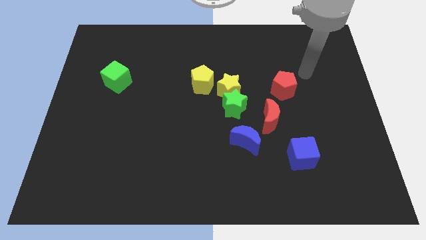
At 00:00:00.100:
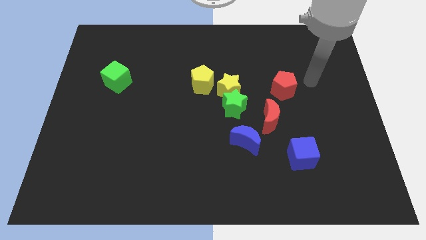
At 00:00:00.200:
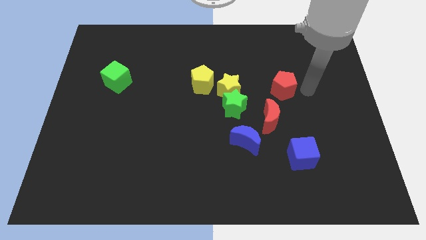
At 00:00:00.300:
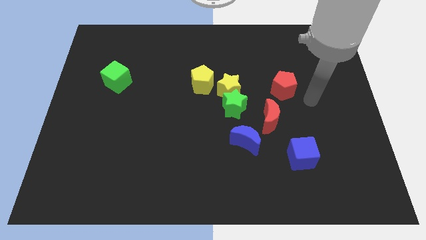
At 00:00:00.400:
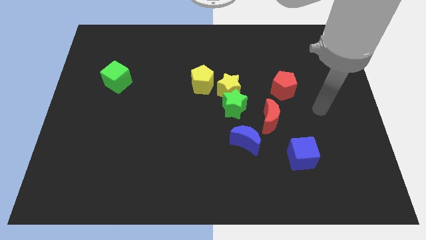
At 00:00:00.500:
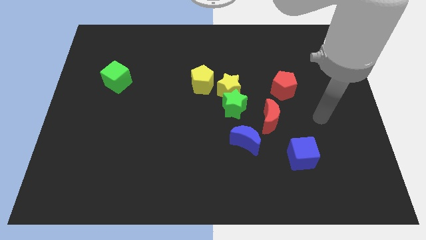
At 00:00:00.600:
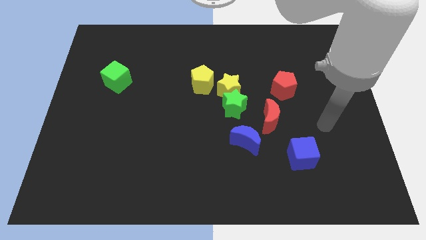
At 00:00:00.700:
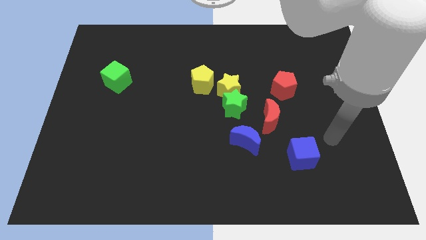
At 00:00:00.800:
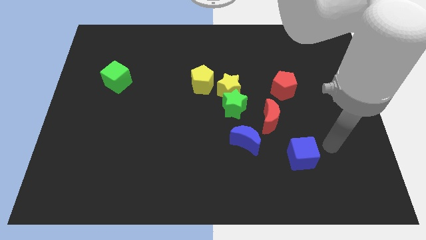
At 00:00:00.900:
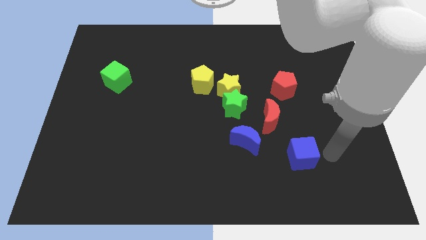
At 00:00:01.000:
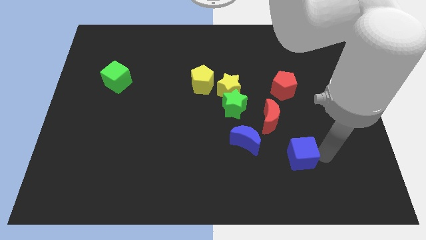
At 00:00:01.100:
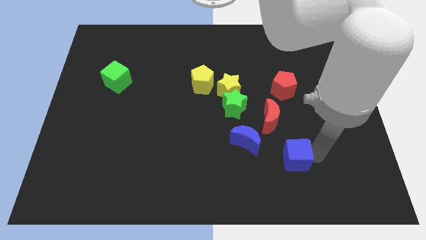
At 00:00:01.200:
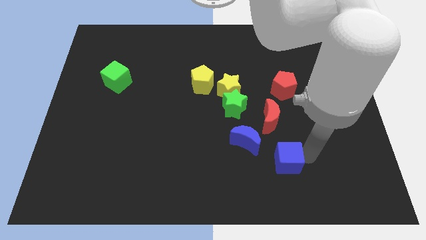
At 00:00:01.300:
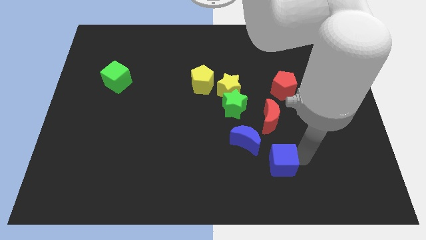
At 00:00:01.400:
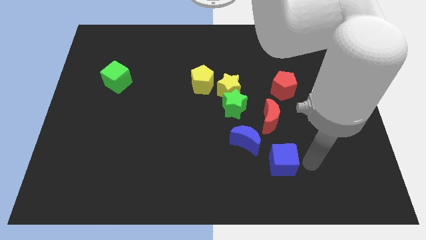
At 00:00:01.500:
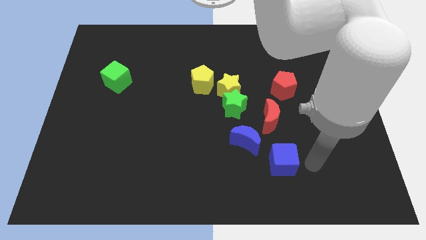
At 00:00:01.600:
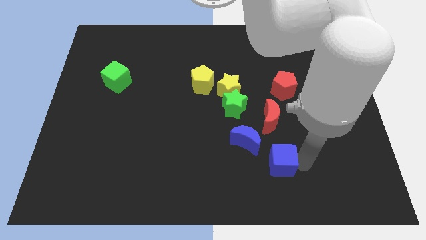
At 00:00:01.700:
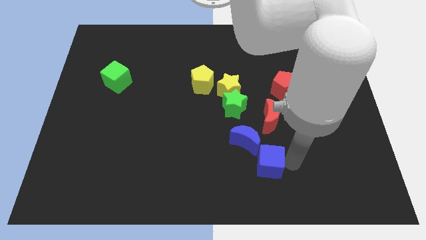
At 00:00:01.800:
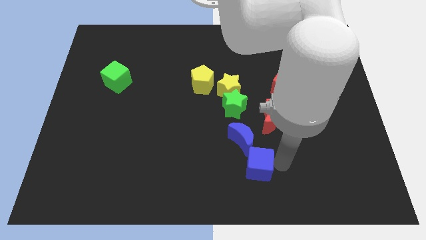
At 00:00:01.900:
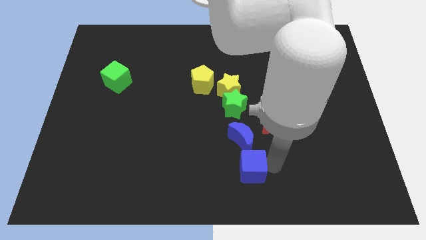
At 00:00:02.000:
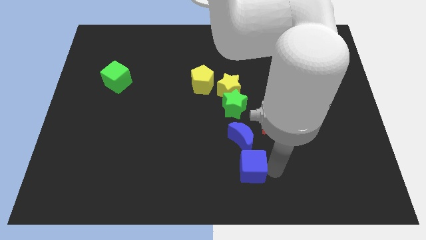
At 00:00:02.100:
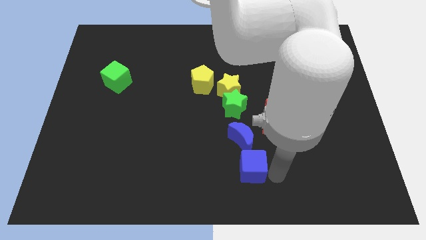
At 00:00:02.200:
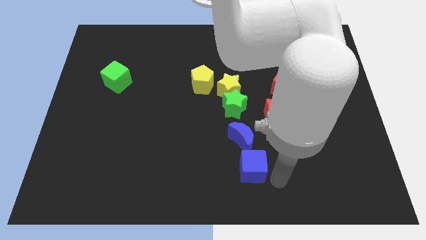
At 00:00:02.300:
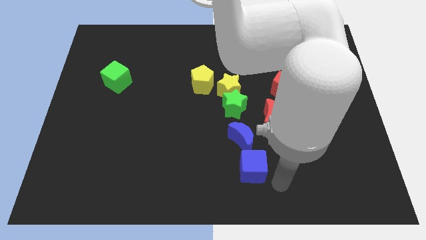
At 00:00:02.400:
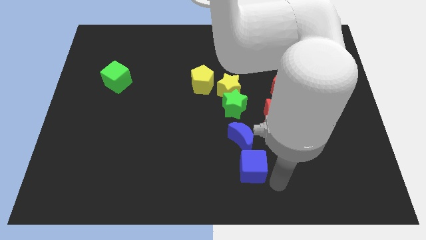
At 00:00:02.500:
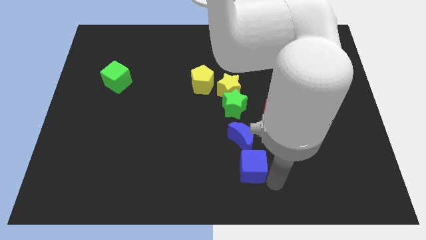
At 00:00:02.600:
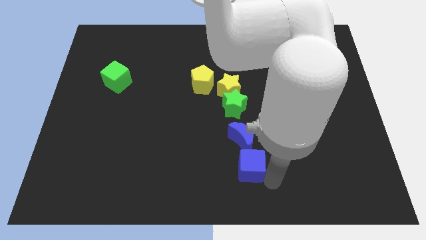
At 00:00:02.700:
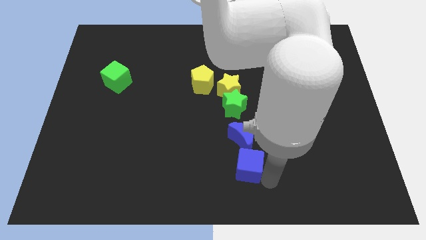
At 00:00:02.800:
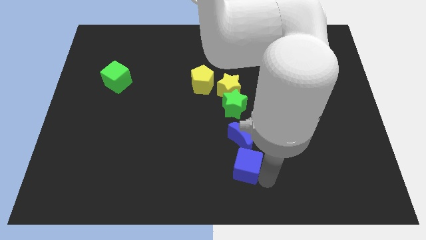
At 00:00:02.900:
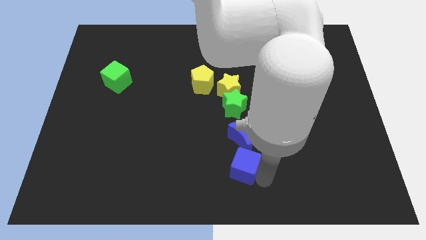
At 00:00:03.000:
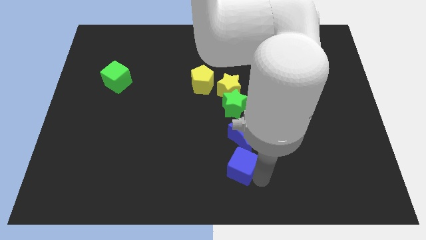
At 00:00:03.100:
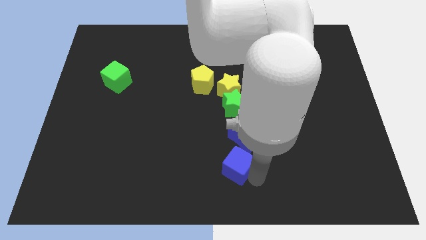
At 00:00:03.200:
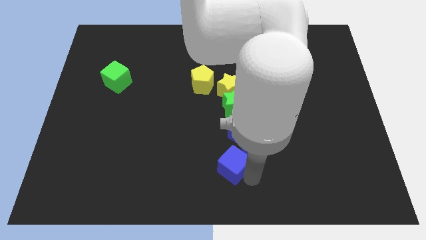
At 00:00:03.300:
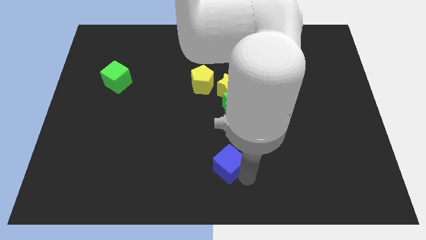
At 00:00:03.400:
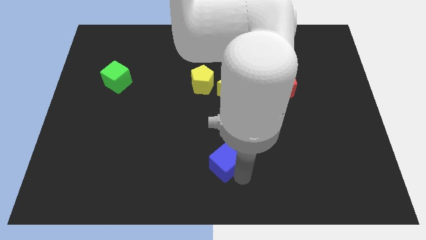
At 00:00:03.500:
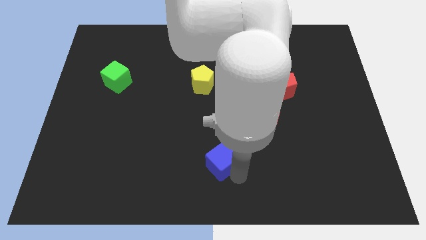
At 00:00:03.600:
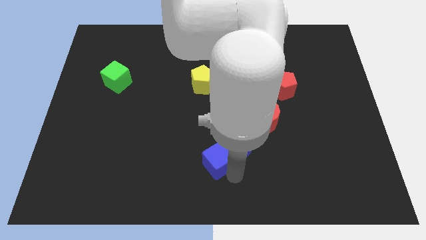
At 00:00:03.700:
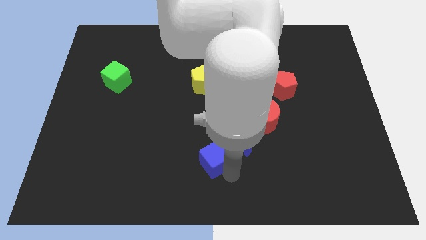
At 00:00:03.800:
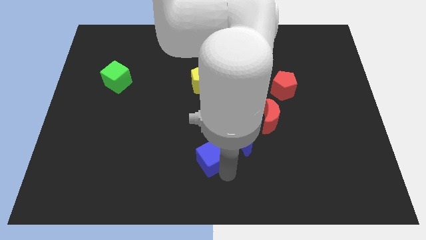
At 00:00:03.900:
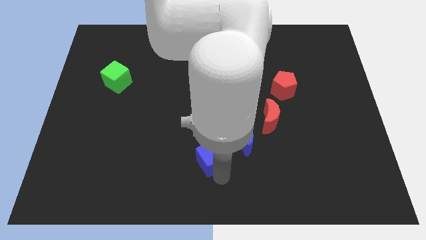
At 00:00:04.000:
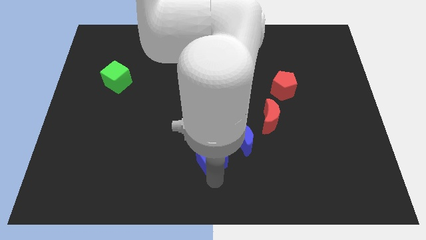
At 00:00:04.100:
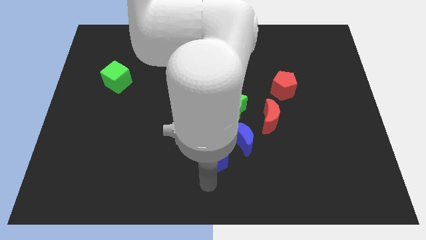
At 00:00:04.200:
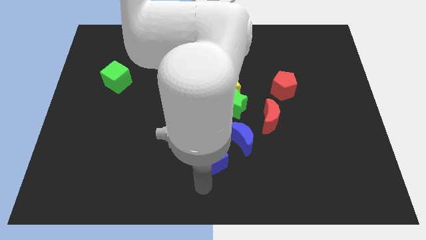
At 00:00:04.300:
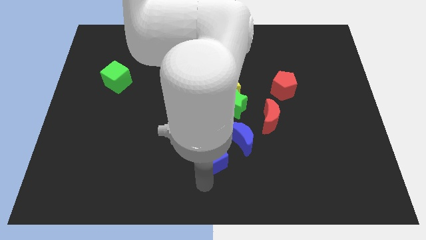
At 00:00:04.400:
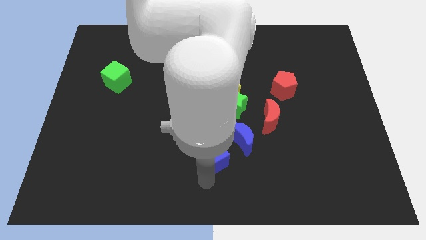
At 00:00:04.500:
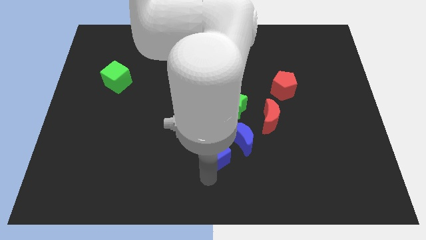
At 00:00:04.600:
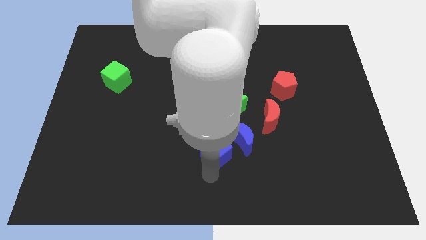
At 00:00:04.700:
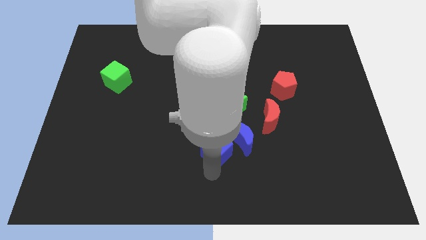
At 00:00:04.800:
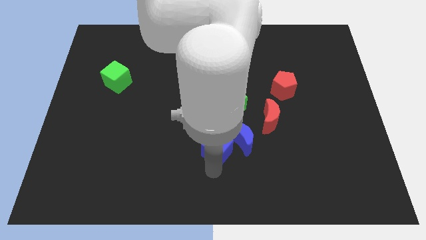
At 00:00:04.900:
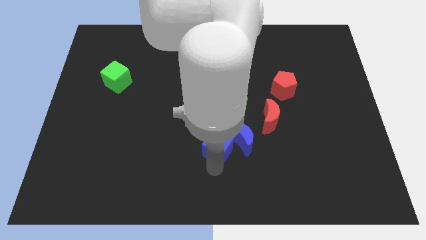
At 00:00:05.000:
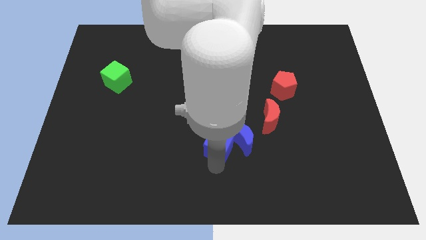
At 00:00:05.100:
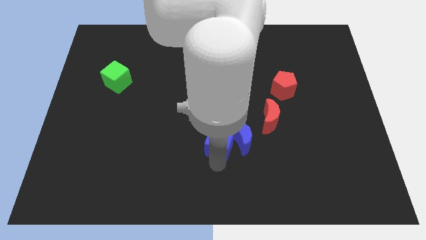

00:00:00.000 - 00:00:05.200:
put the blue cube to the top left of the blue moon

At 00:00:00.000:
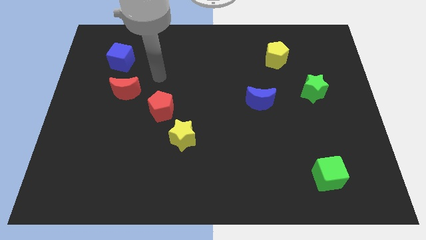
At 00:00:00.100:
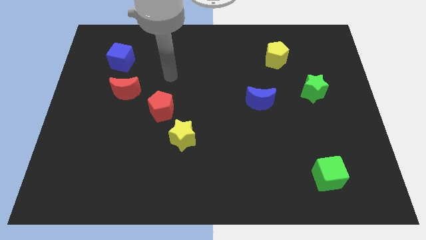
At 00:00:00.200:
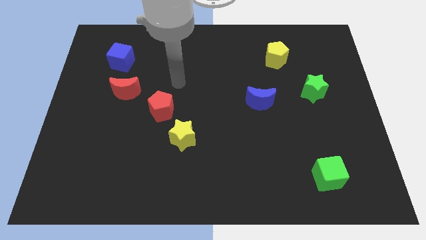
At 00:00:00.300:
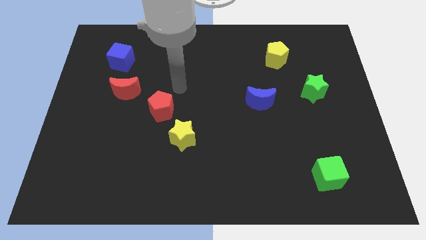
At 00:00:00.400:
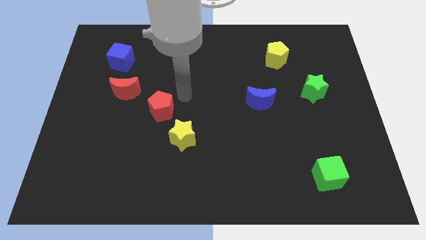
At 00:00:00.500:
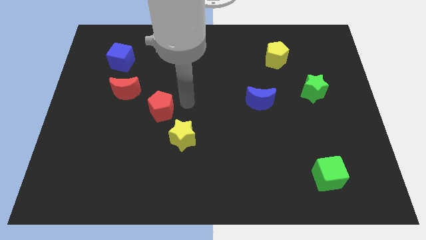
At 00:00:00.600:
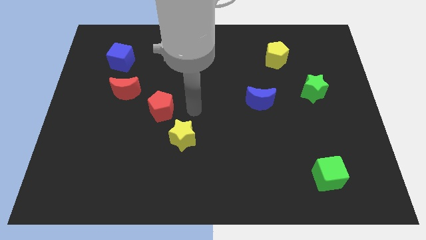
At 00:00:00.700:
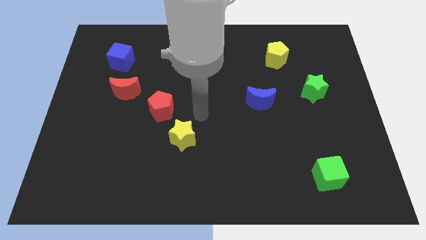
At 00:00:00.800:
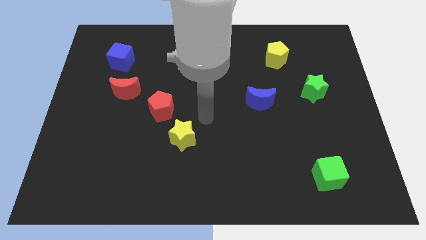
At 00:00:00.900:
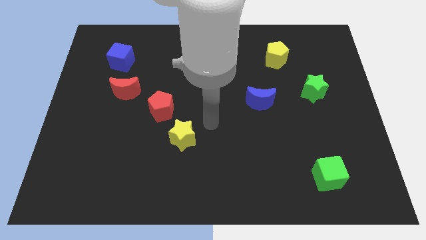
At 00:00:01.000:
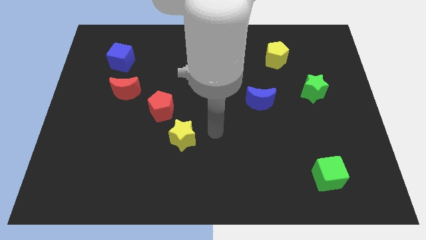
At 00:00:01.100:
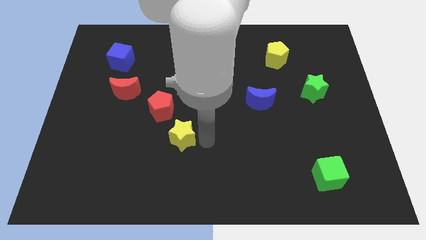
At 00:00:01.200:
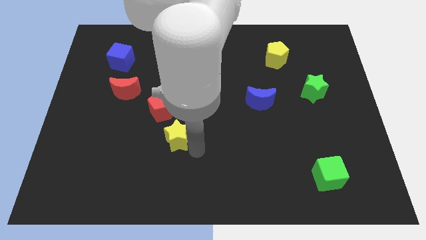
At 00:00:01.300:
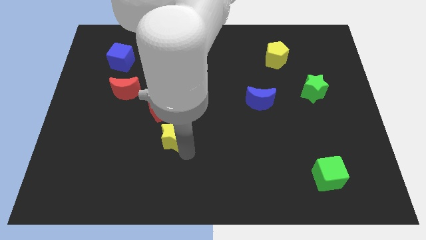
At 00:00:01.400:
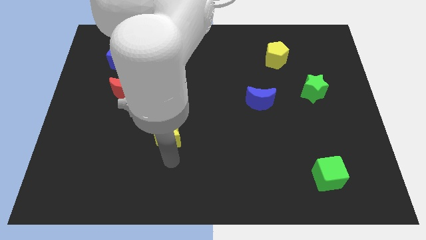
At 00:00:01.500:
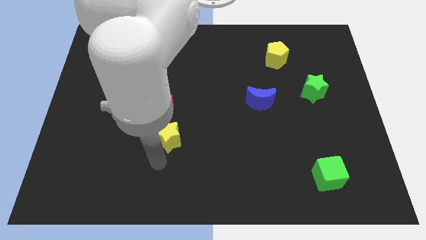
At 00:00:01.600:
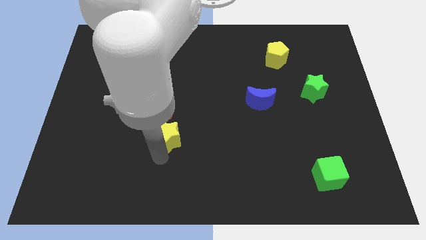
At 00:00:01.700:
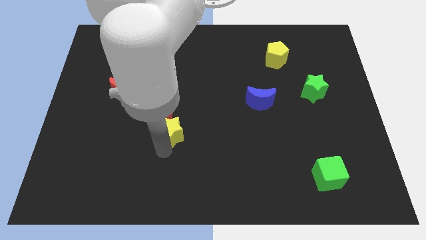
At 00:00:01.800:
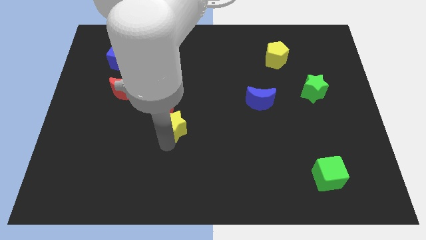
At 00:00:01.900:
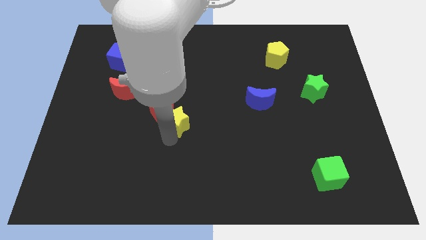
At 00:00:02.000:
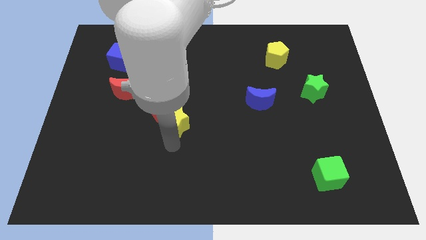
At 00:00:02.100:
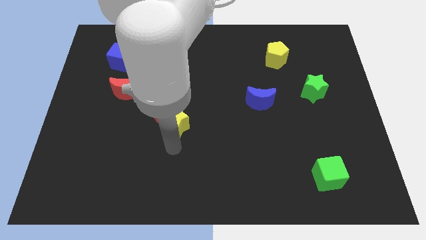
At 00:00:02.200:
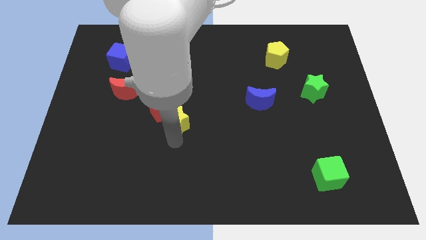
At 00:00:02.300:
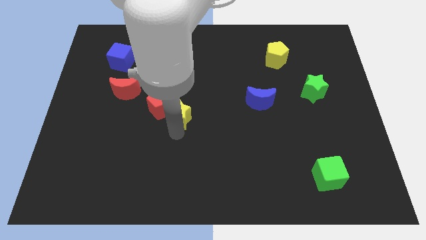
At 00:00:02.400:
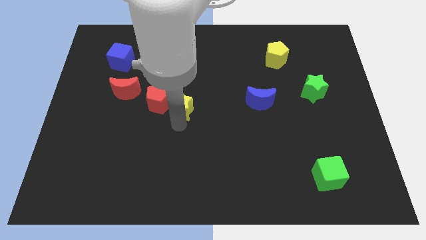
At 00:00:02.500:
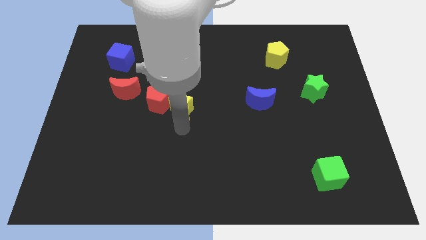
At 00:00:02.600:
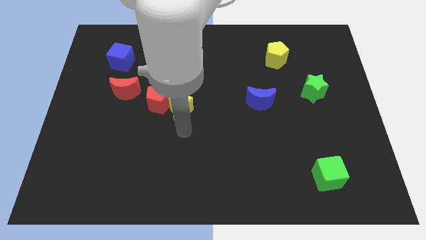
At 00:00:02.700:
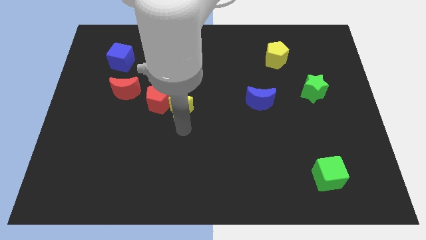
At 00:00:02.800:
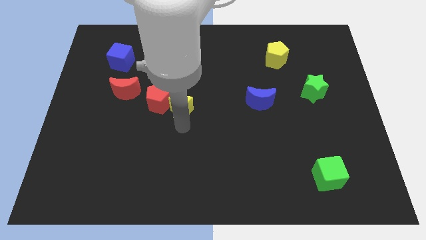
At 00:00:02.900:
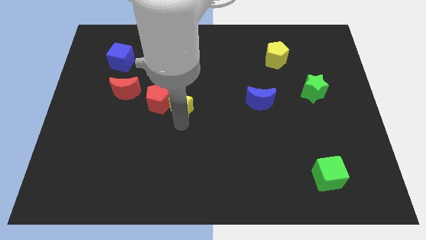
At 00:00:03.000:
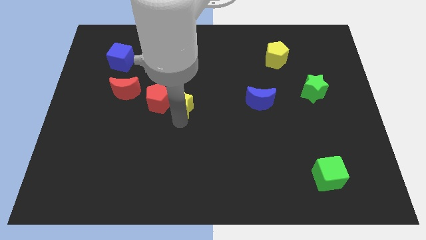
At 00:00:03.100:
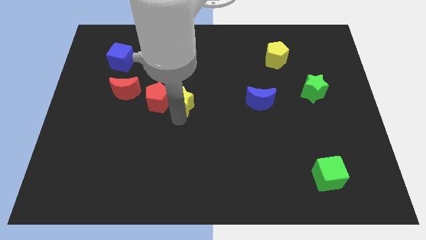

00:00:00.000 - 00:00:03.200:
put the yellow star to the top right side of the red pentagon
